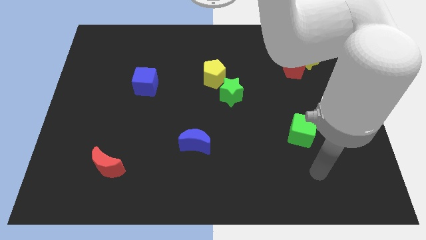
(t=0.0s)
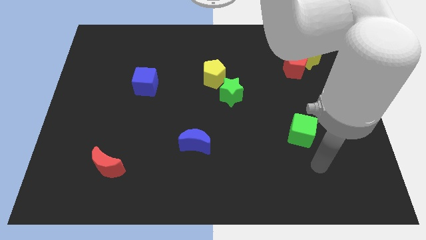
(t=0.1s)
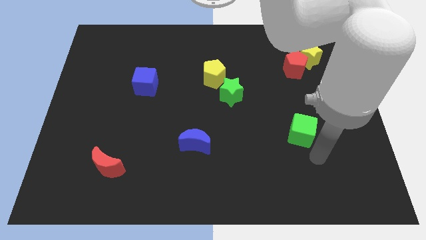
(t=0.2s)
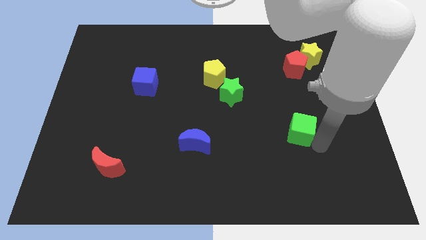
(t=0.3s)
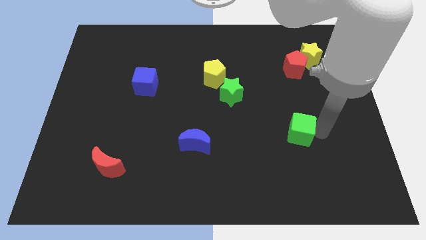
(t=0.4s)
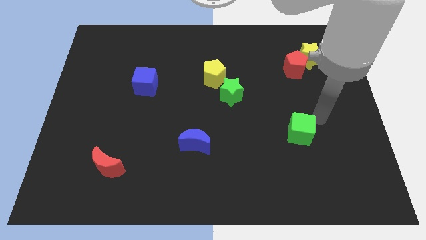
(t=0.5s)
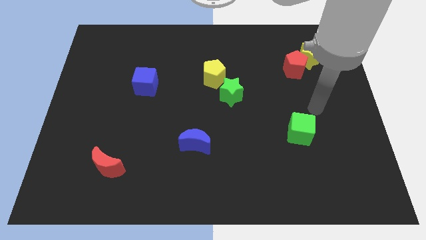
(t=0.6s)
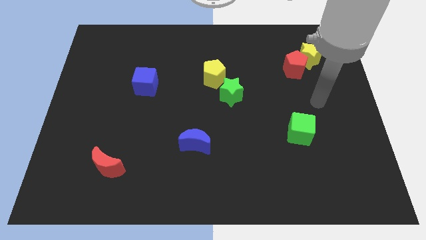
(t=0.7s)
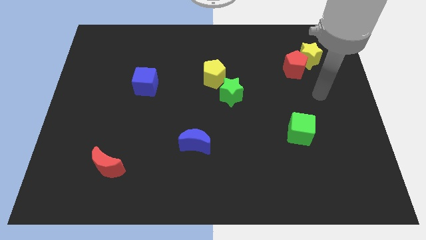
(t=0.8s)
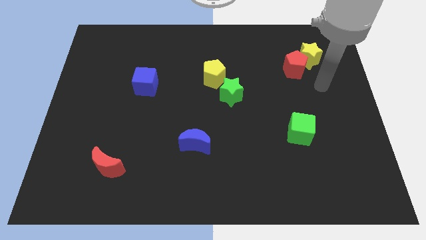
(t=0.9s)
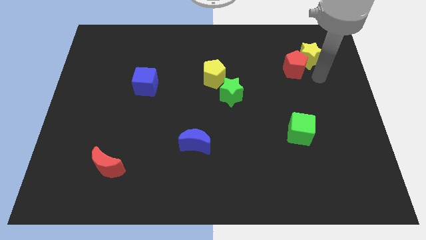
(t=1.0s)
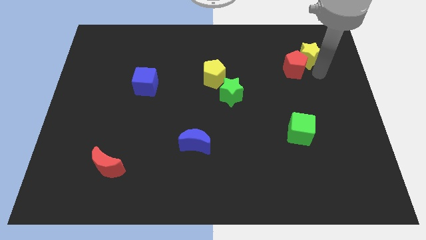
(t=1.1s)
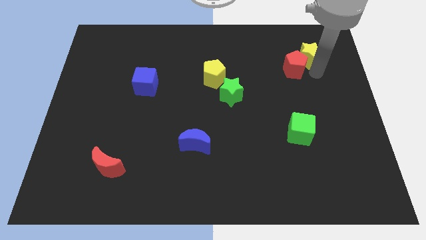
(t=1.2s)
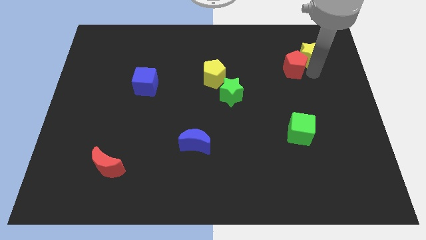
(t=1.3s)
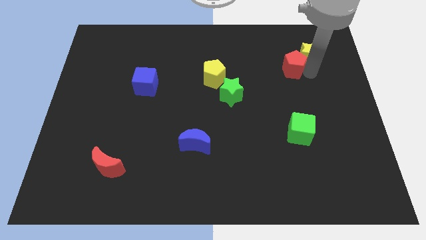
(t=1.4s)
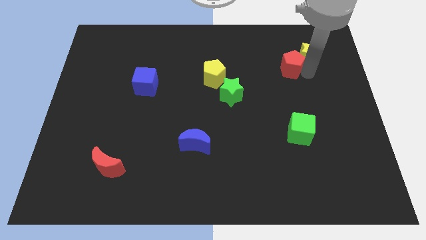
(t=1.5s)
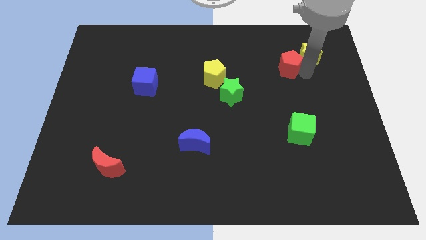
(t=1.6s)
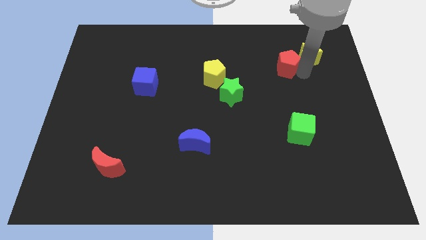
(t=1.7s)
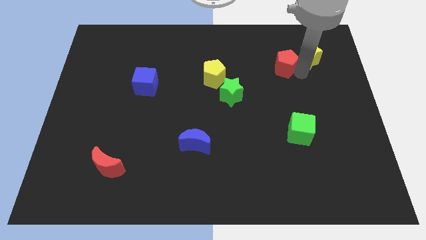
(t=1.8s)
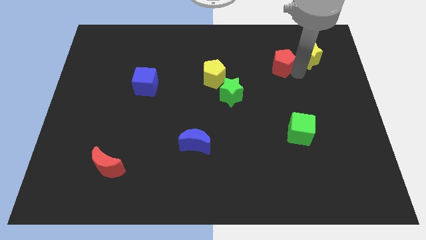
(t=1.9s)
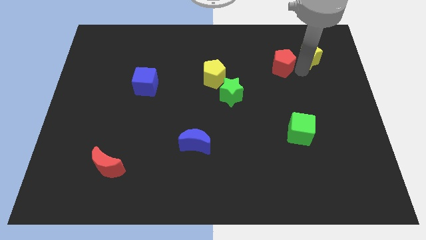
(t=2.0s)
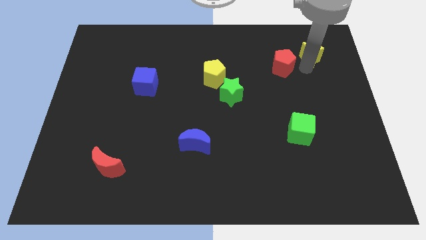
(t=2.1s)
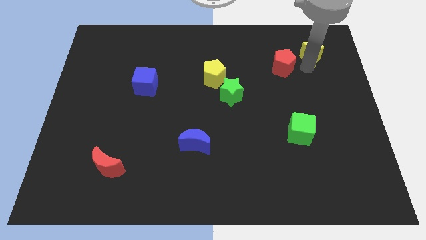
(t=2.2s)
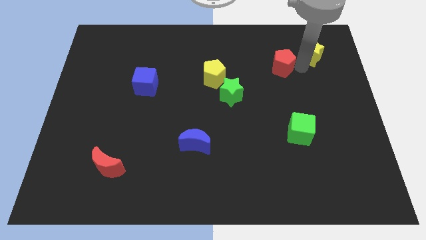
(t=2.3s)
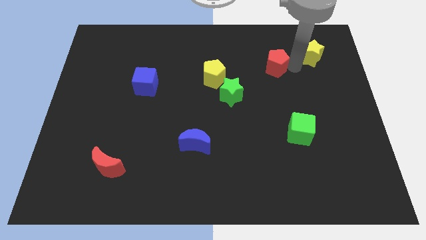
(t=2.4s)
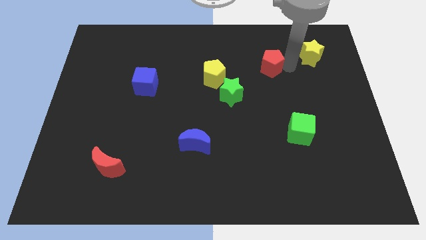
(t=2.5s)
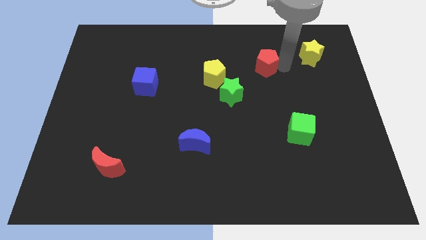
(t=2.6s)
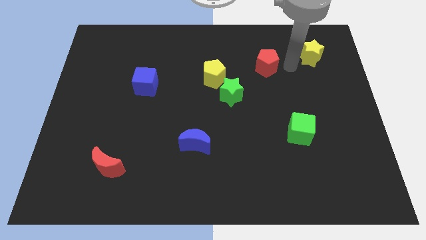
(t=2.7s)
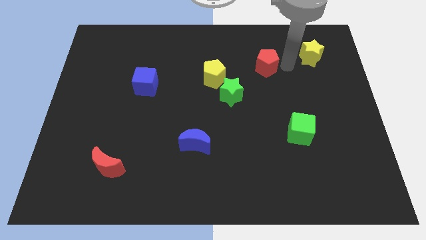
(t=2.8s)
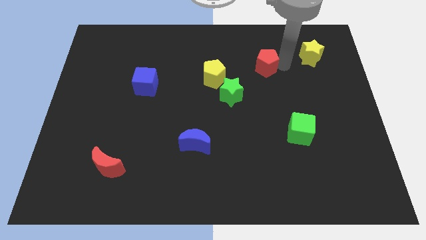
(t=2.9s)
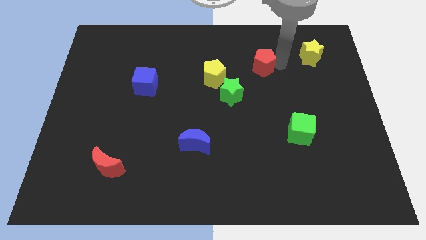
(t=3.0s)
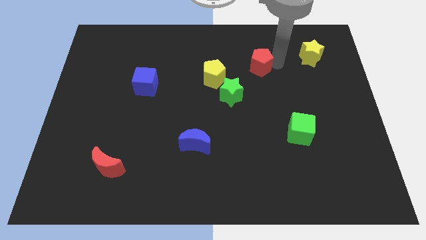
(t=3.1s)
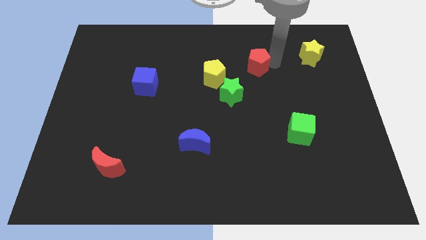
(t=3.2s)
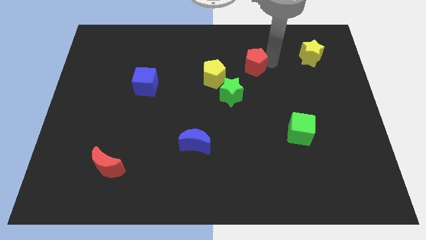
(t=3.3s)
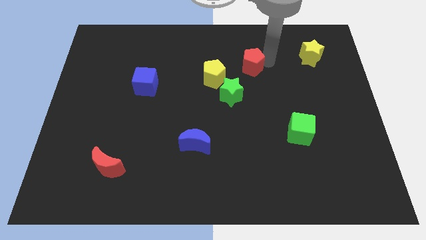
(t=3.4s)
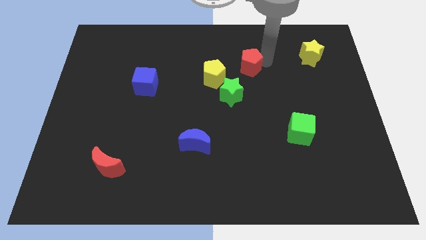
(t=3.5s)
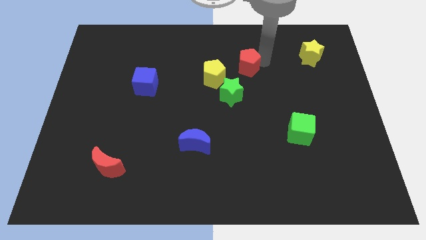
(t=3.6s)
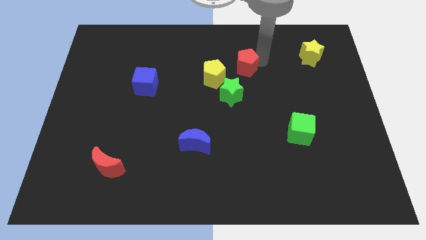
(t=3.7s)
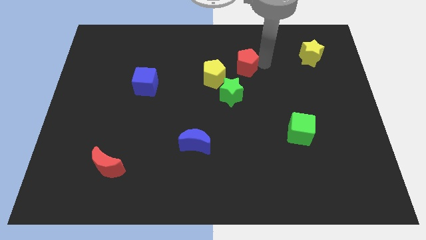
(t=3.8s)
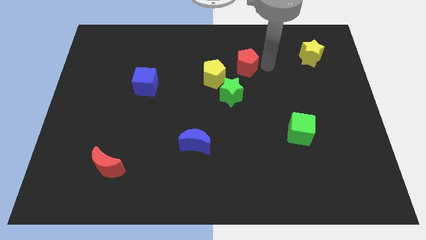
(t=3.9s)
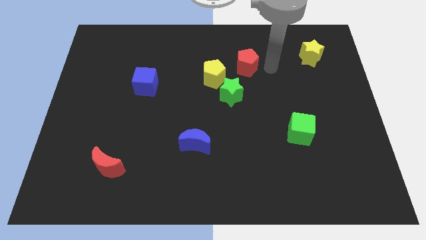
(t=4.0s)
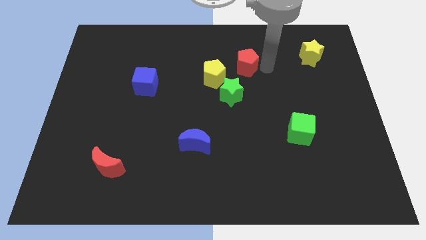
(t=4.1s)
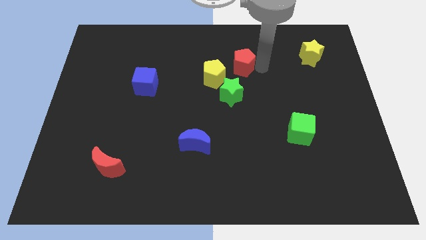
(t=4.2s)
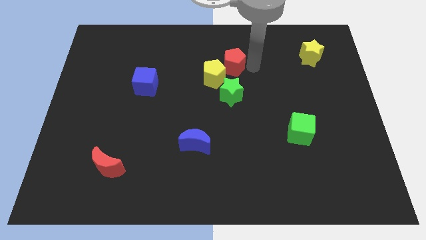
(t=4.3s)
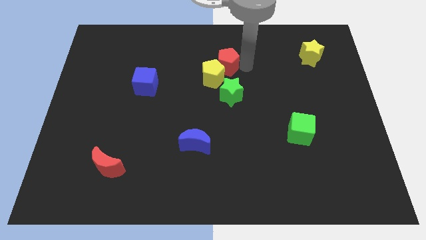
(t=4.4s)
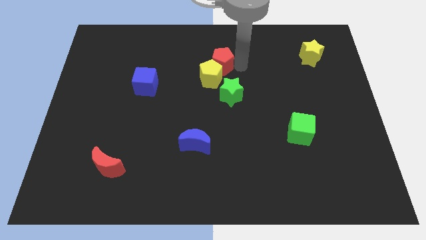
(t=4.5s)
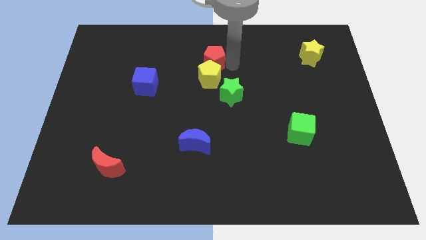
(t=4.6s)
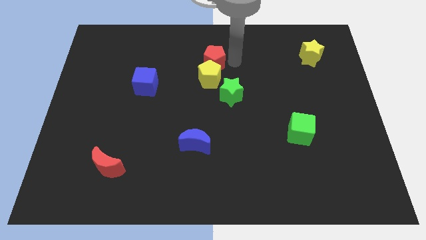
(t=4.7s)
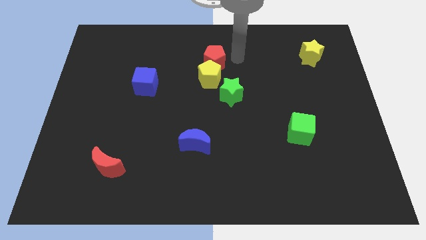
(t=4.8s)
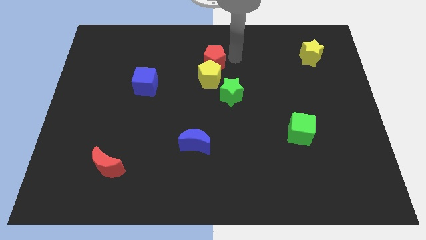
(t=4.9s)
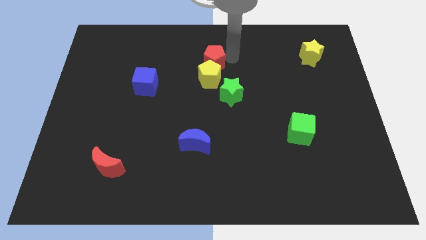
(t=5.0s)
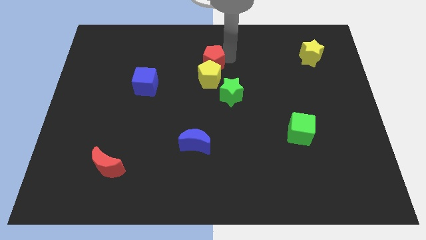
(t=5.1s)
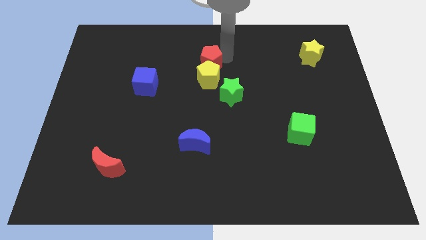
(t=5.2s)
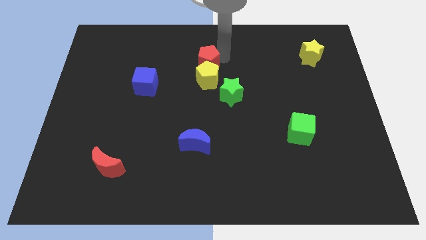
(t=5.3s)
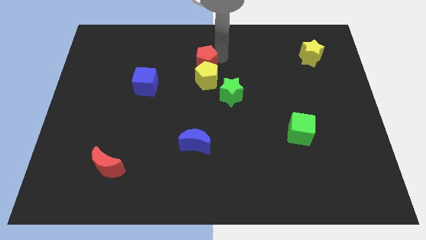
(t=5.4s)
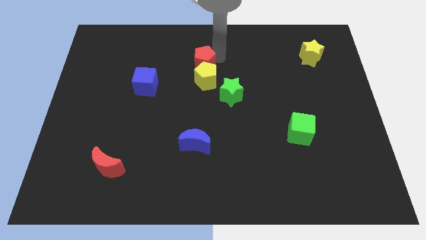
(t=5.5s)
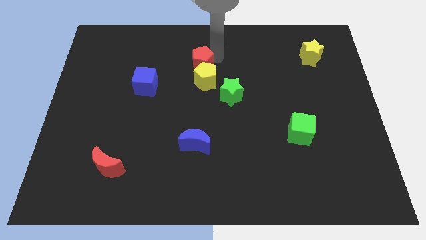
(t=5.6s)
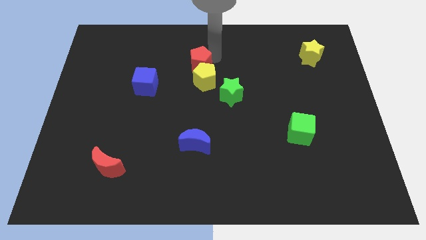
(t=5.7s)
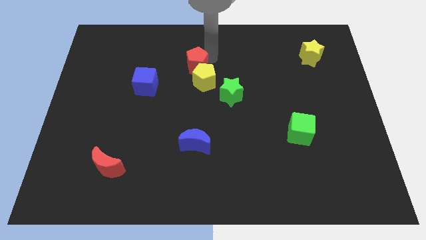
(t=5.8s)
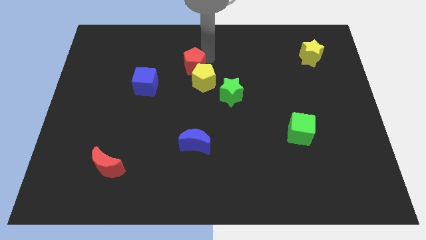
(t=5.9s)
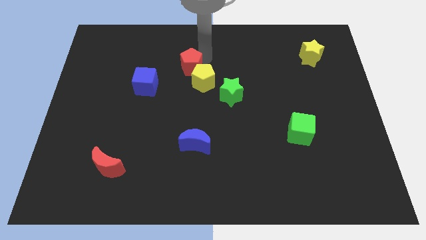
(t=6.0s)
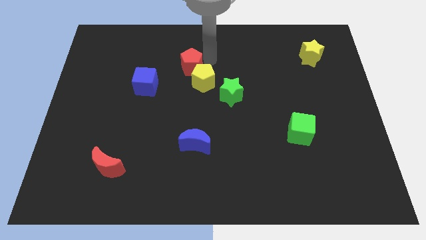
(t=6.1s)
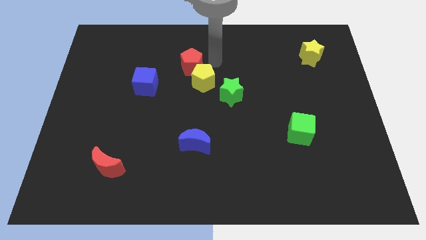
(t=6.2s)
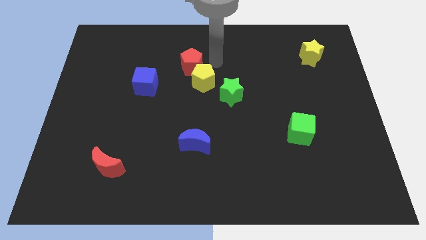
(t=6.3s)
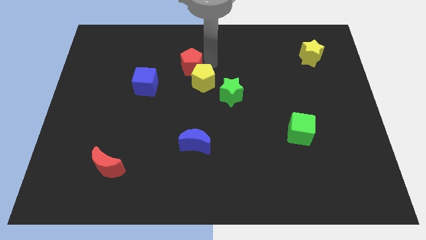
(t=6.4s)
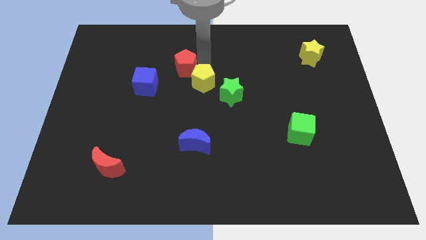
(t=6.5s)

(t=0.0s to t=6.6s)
push the red pentagon to the top right of the blue cube

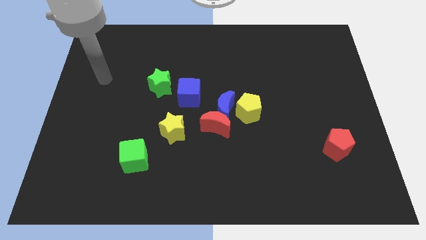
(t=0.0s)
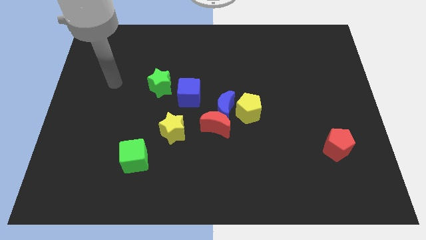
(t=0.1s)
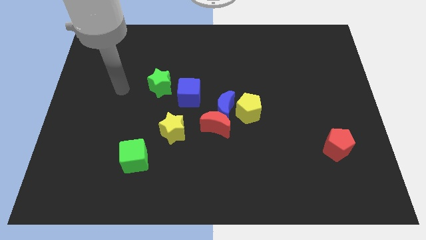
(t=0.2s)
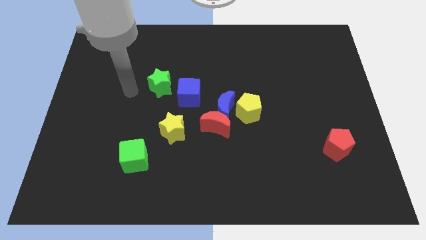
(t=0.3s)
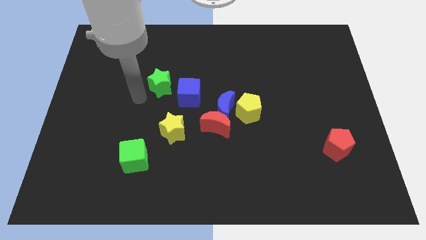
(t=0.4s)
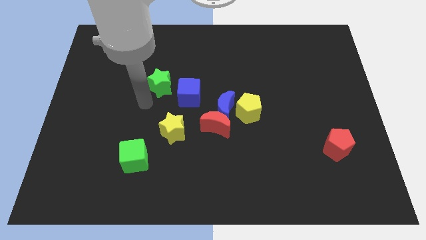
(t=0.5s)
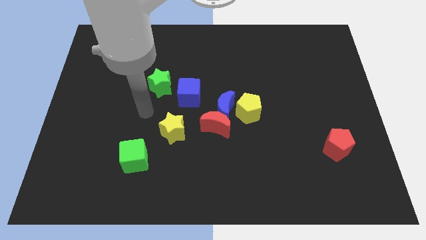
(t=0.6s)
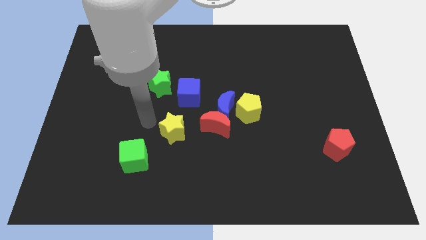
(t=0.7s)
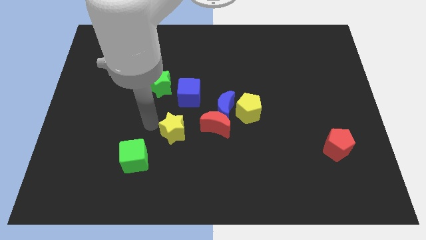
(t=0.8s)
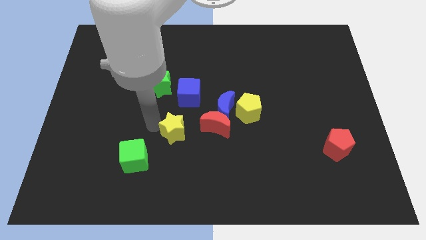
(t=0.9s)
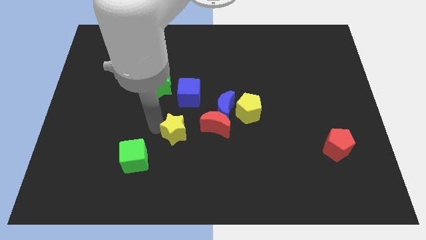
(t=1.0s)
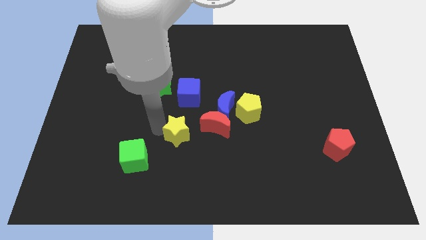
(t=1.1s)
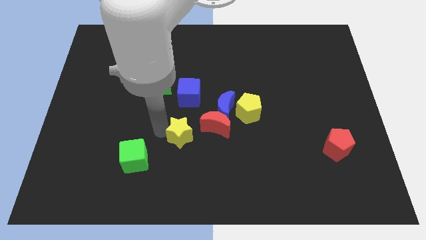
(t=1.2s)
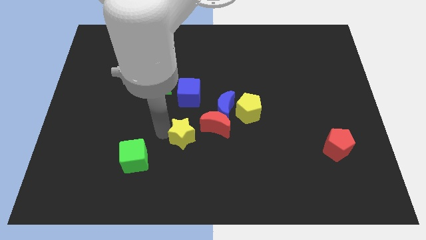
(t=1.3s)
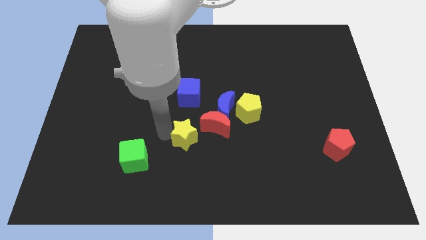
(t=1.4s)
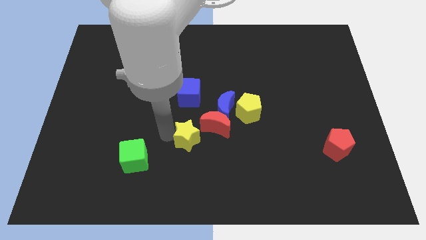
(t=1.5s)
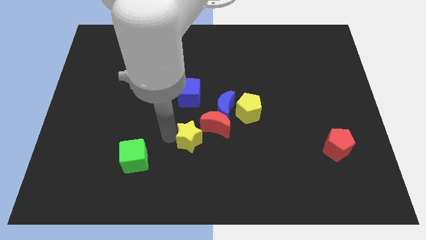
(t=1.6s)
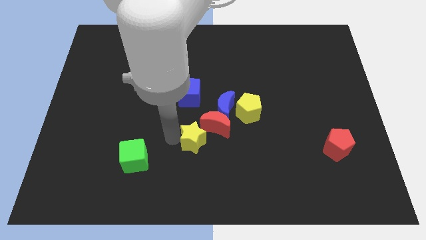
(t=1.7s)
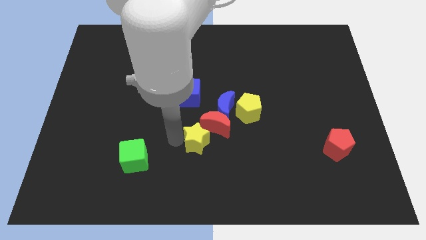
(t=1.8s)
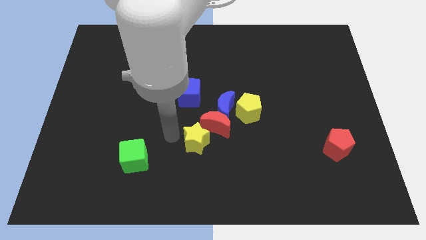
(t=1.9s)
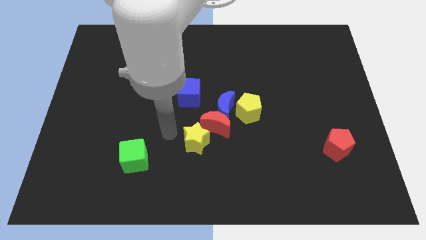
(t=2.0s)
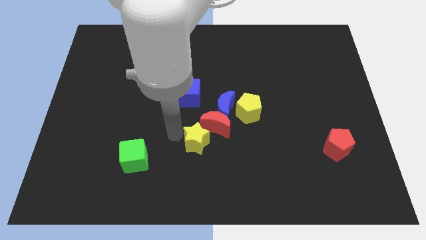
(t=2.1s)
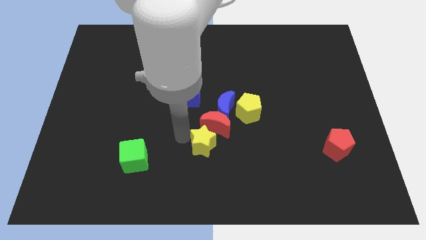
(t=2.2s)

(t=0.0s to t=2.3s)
push the yellow star to the bottom side of the blue moon
